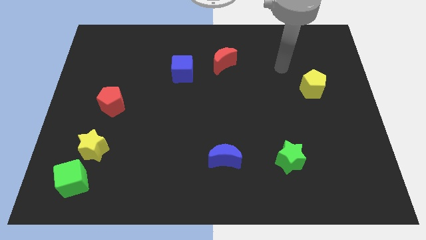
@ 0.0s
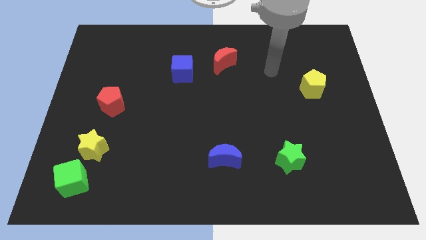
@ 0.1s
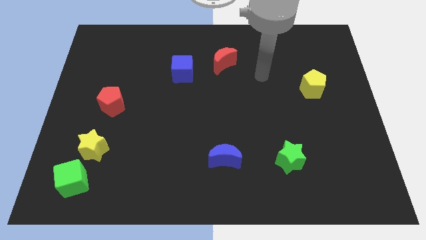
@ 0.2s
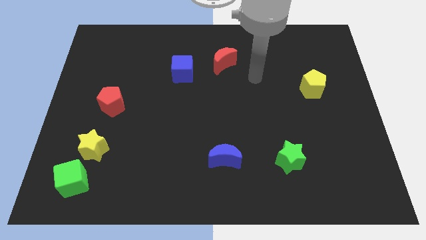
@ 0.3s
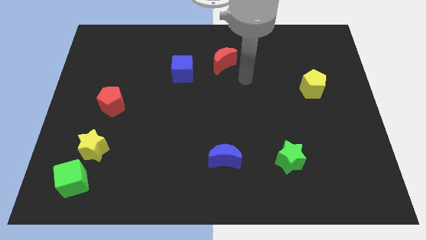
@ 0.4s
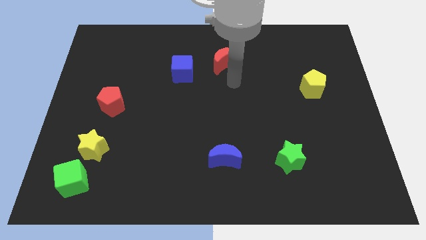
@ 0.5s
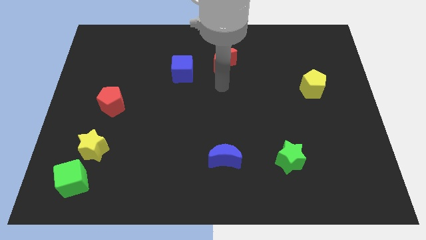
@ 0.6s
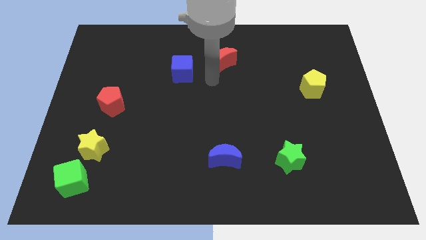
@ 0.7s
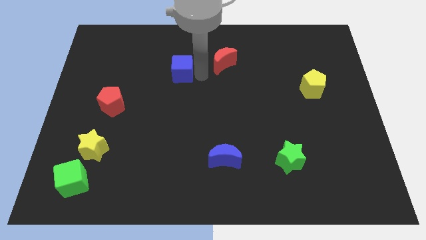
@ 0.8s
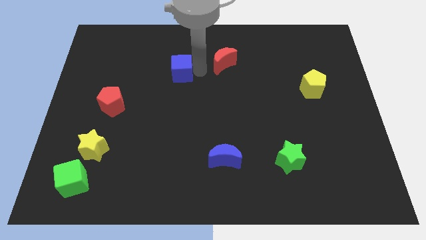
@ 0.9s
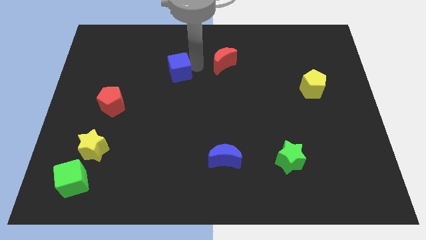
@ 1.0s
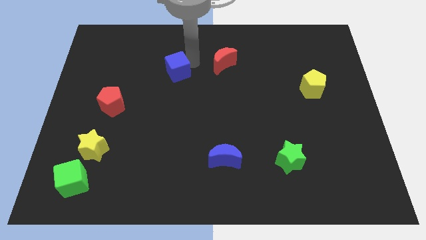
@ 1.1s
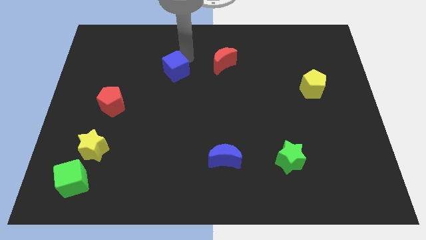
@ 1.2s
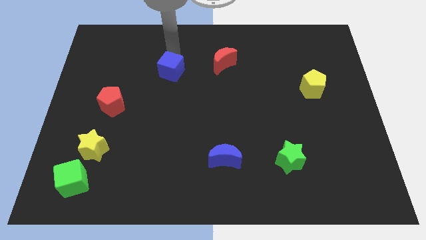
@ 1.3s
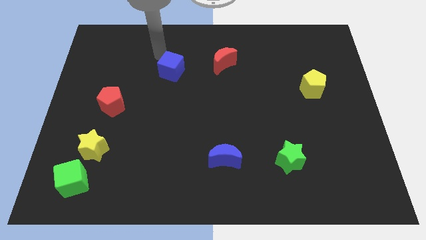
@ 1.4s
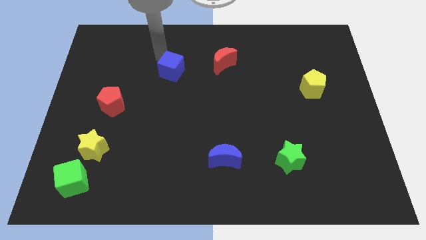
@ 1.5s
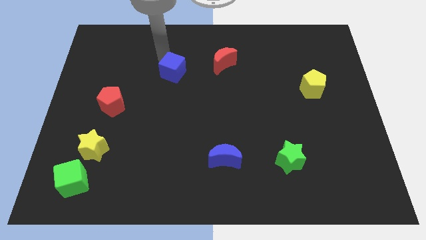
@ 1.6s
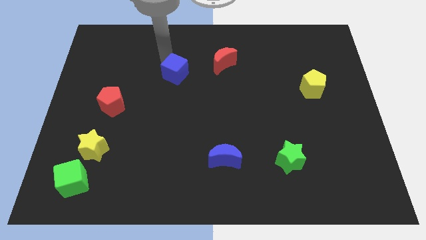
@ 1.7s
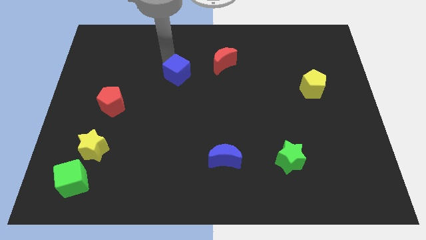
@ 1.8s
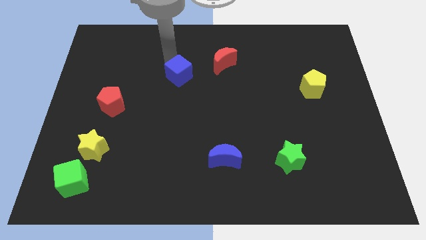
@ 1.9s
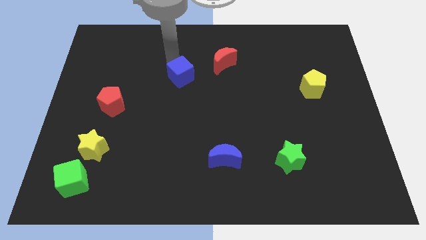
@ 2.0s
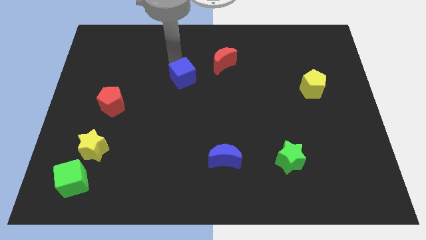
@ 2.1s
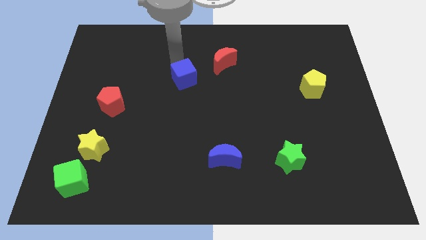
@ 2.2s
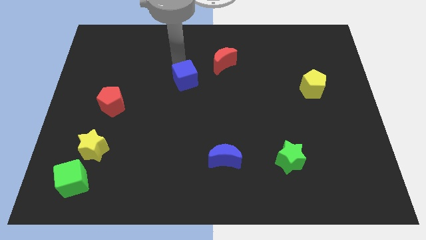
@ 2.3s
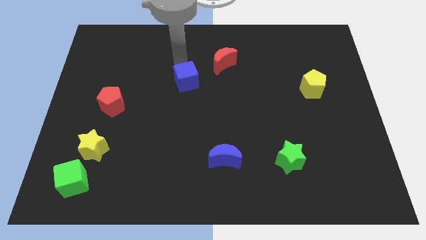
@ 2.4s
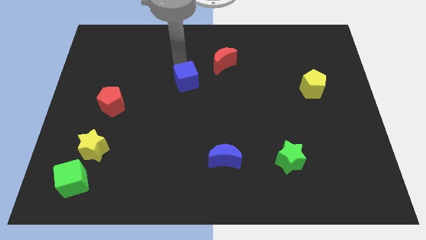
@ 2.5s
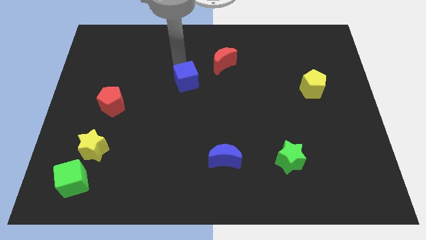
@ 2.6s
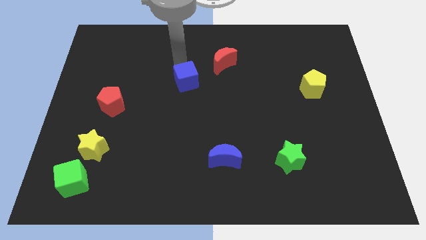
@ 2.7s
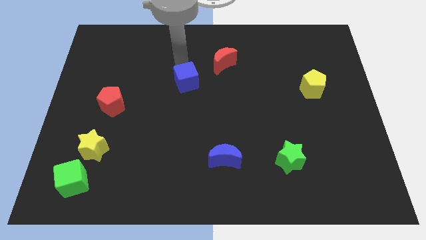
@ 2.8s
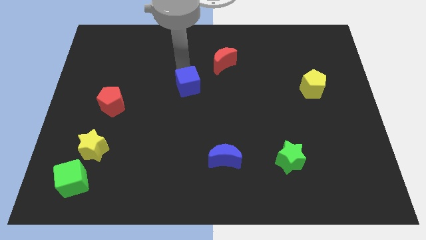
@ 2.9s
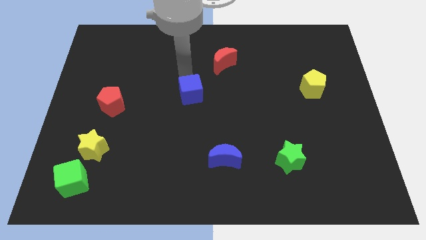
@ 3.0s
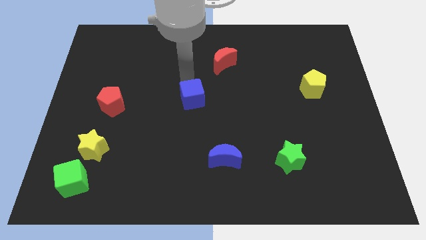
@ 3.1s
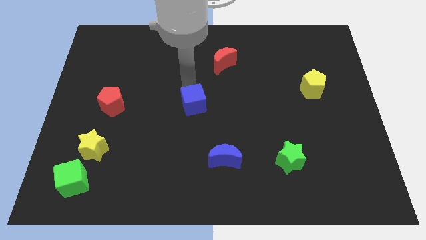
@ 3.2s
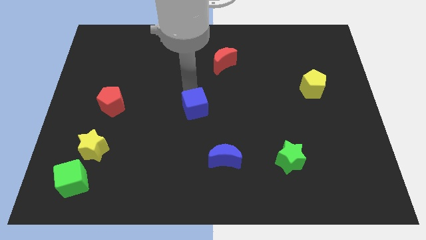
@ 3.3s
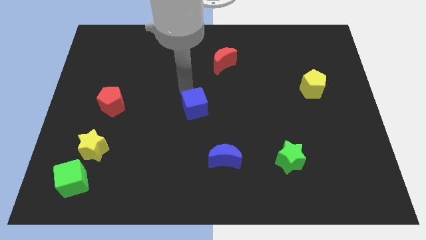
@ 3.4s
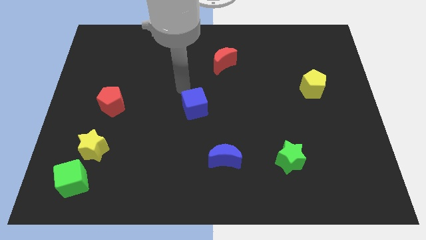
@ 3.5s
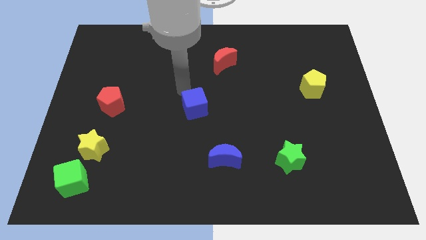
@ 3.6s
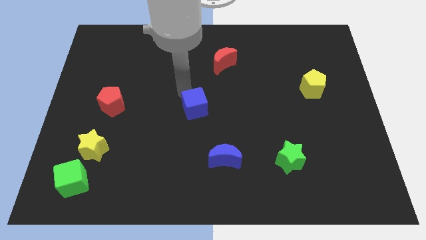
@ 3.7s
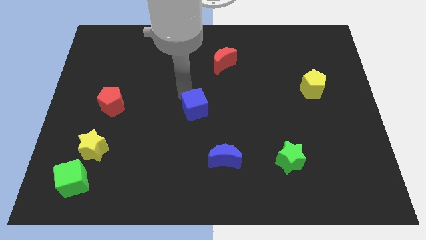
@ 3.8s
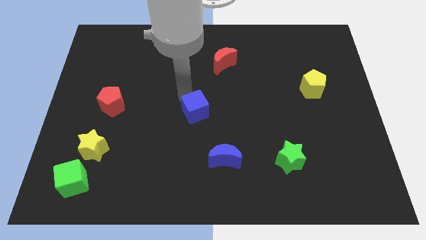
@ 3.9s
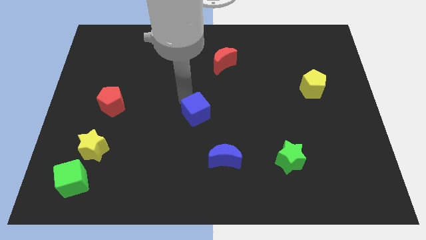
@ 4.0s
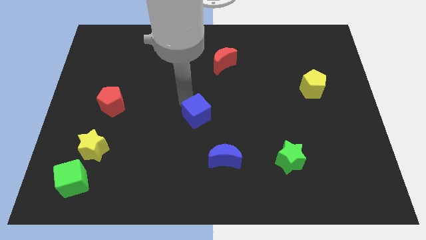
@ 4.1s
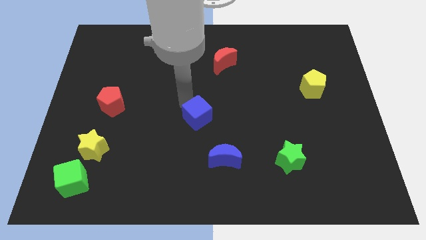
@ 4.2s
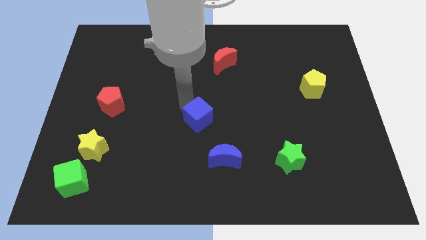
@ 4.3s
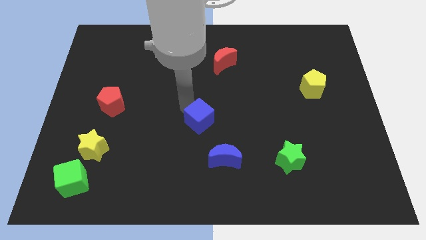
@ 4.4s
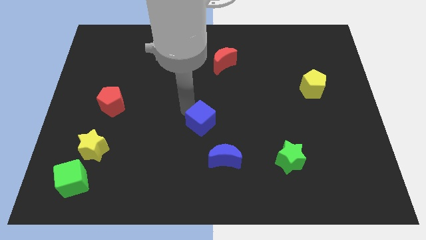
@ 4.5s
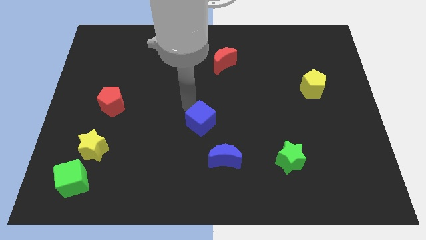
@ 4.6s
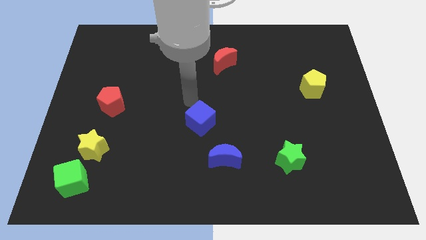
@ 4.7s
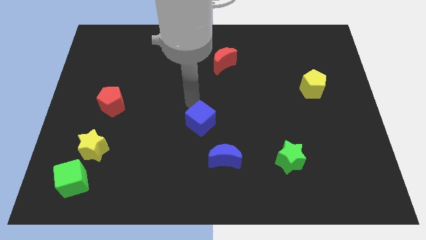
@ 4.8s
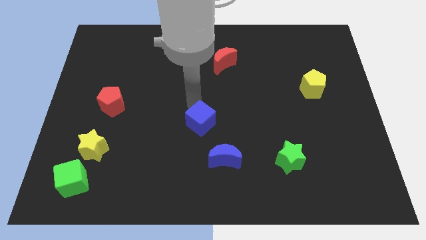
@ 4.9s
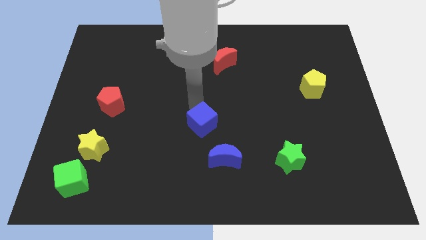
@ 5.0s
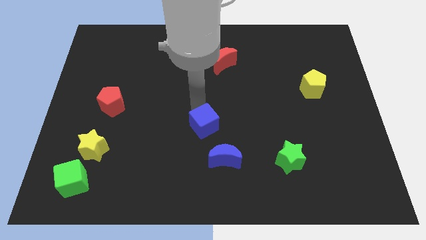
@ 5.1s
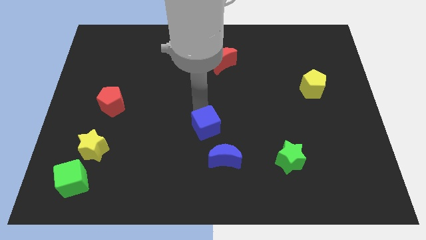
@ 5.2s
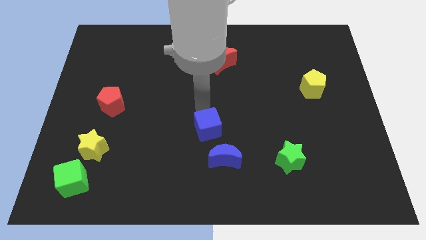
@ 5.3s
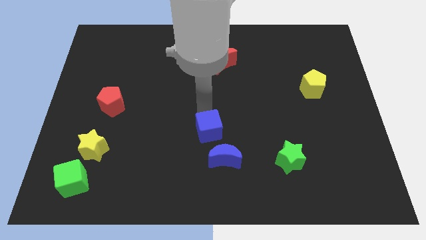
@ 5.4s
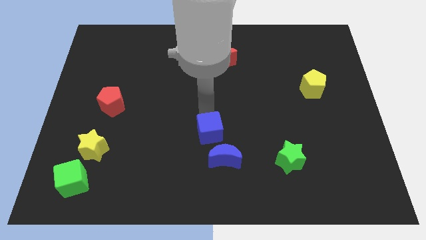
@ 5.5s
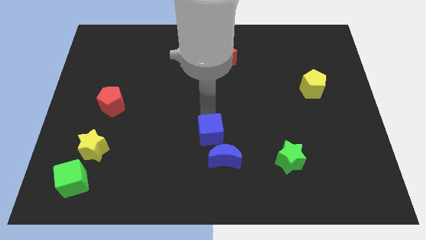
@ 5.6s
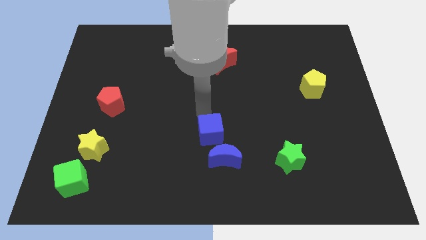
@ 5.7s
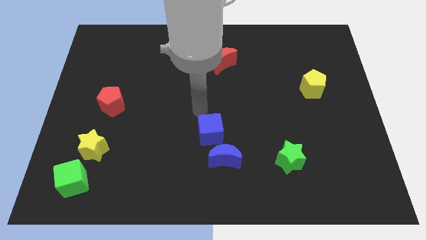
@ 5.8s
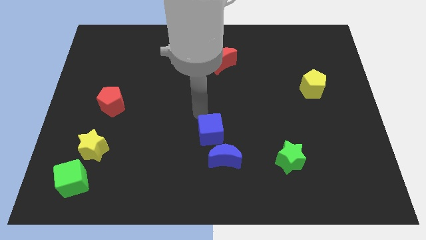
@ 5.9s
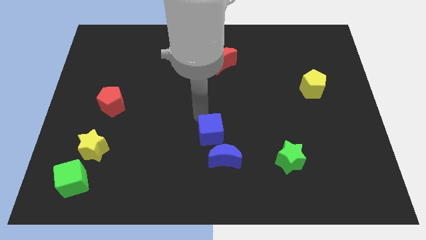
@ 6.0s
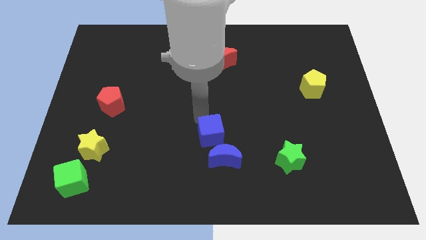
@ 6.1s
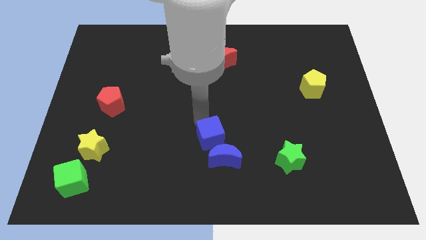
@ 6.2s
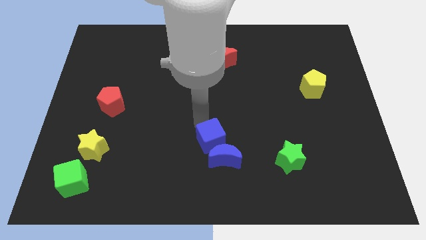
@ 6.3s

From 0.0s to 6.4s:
push the blue cube next to the blue moon

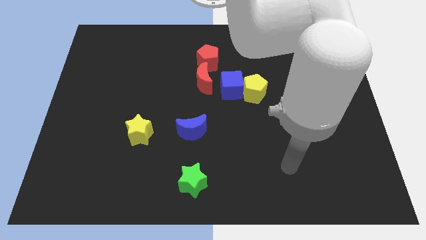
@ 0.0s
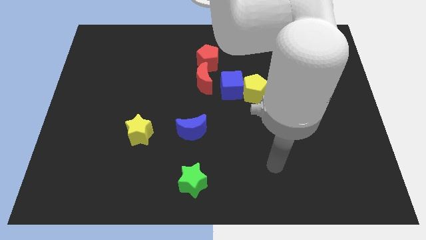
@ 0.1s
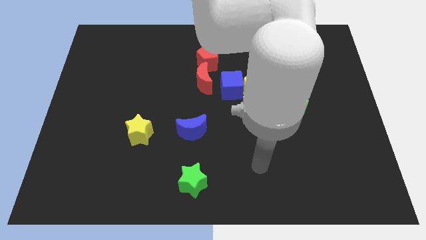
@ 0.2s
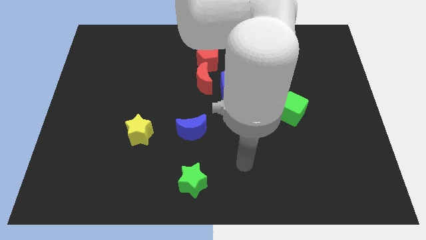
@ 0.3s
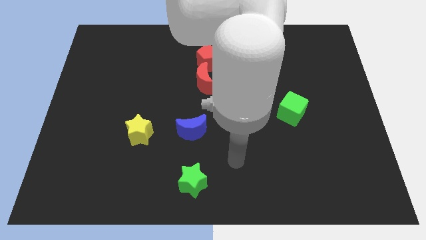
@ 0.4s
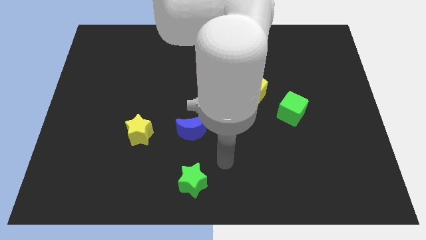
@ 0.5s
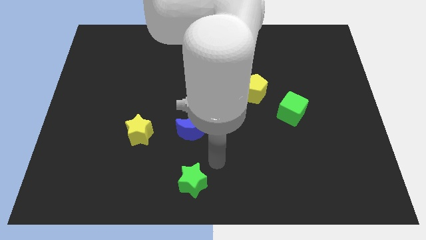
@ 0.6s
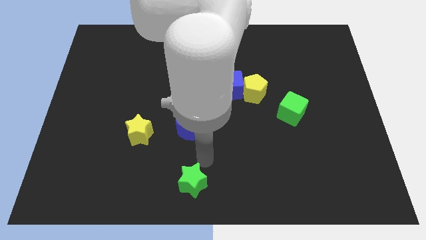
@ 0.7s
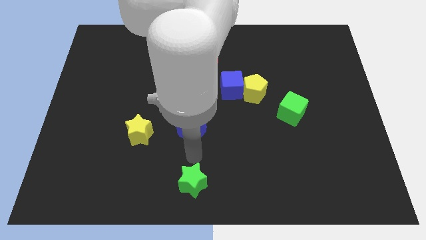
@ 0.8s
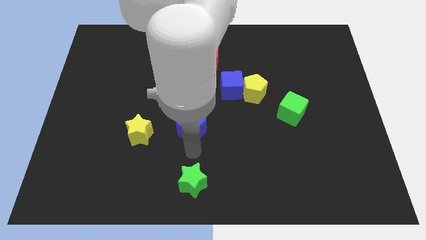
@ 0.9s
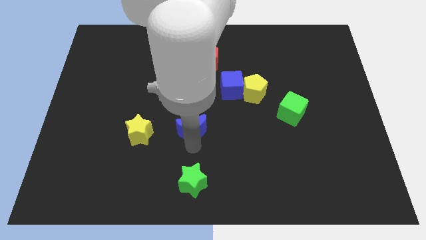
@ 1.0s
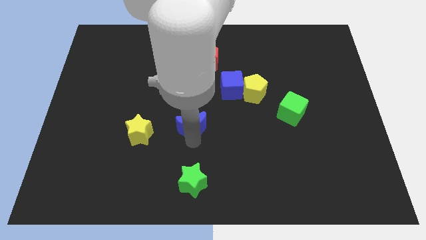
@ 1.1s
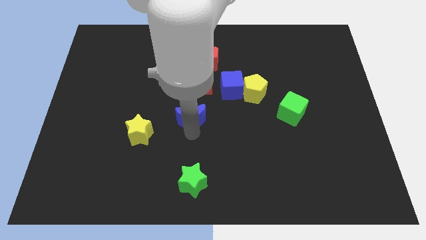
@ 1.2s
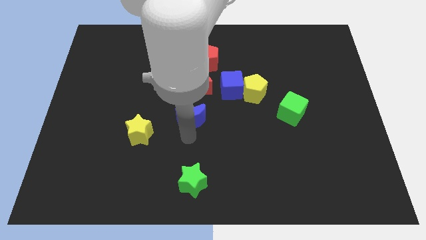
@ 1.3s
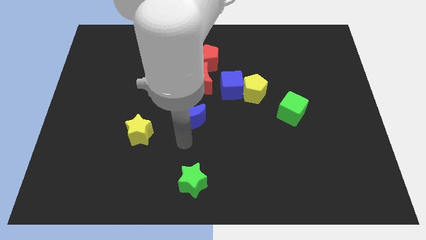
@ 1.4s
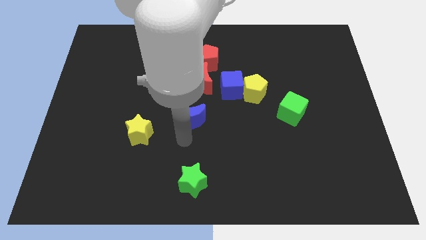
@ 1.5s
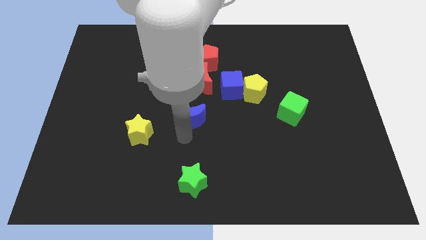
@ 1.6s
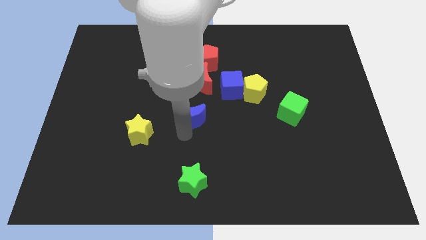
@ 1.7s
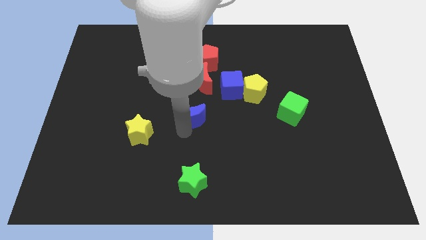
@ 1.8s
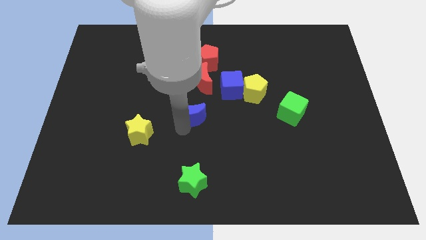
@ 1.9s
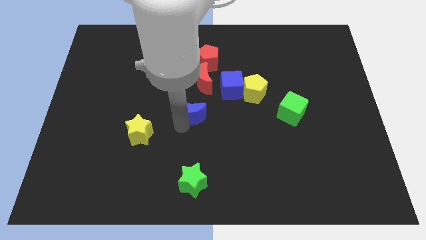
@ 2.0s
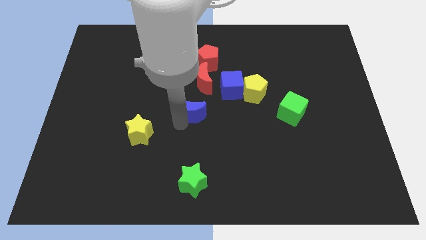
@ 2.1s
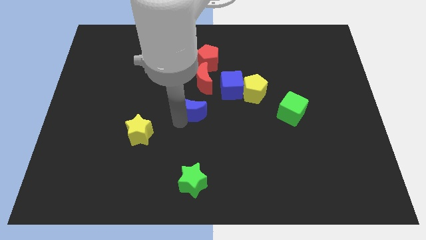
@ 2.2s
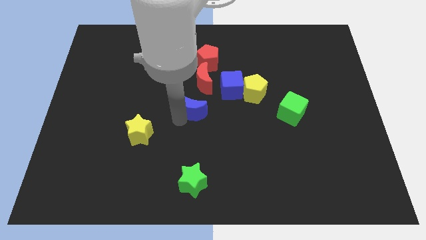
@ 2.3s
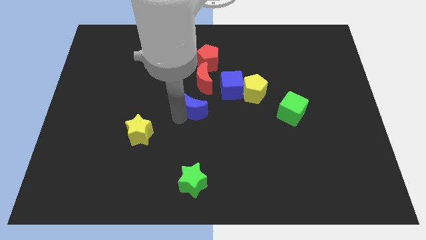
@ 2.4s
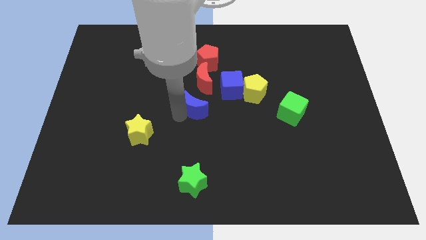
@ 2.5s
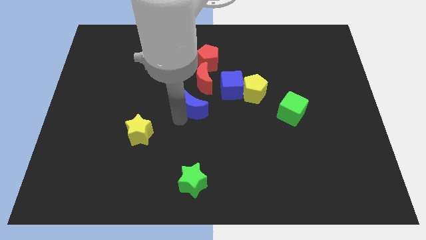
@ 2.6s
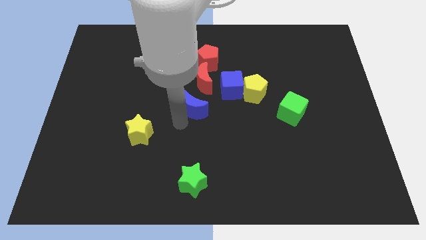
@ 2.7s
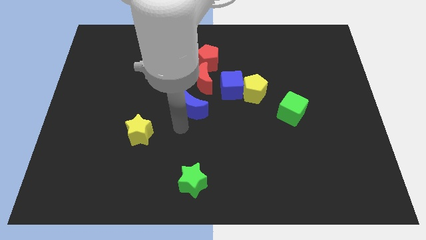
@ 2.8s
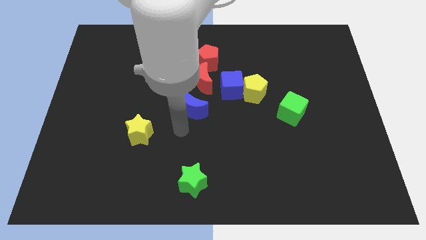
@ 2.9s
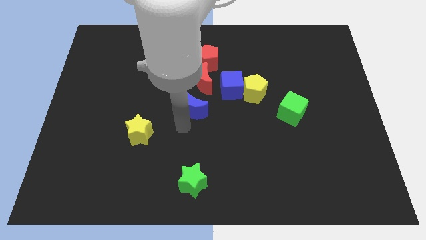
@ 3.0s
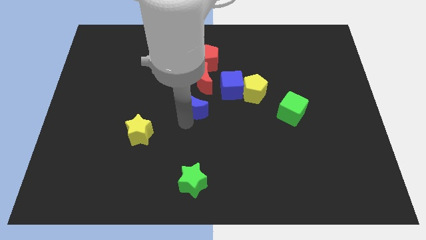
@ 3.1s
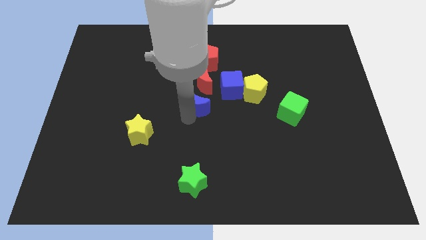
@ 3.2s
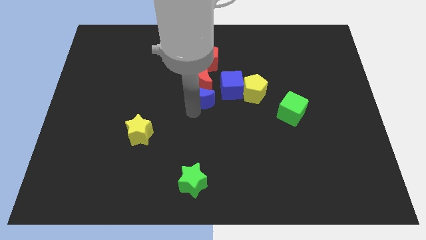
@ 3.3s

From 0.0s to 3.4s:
move the blue moon towards the red moon
